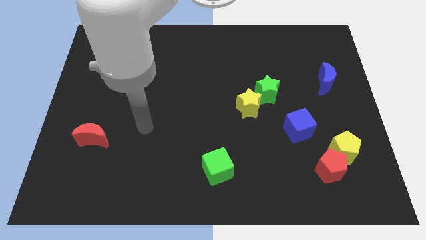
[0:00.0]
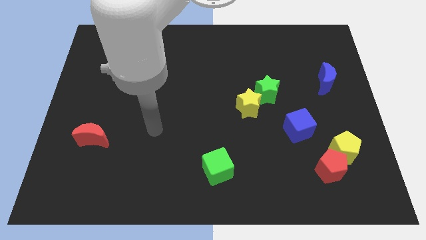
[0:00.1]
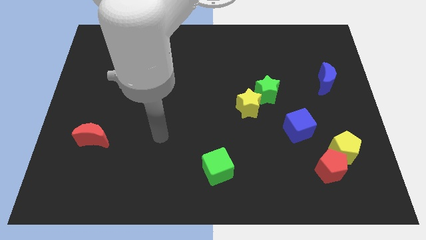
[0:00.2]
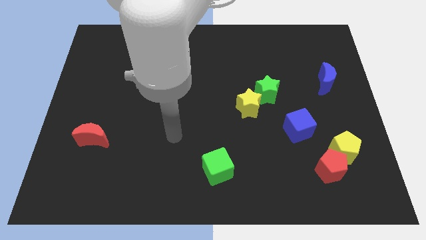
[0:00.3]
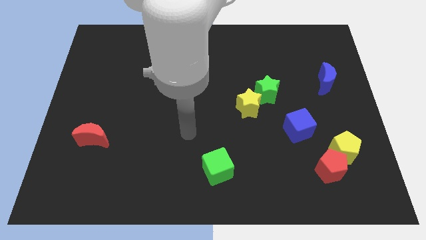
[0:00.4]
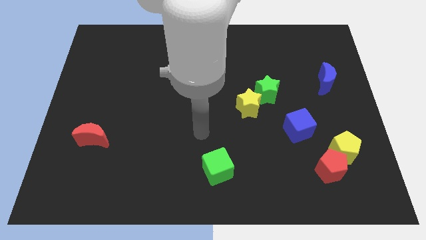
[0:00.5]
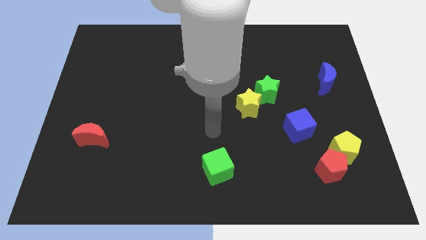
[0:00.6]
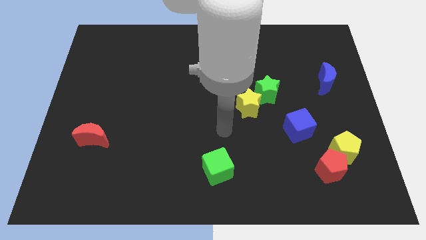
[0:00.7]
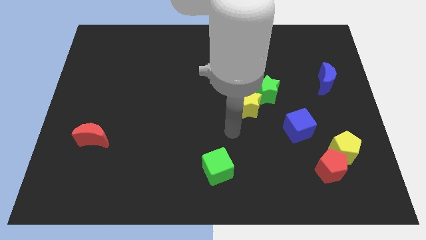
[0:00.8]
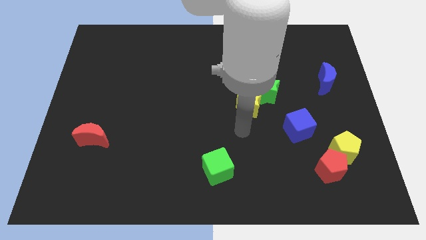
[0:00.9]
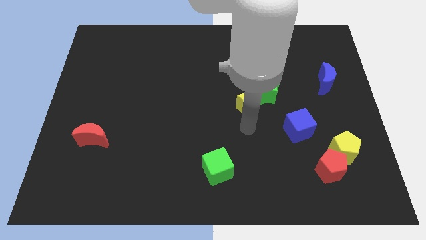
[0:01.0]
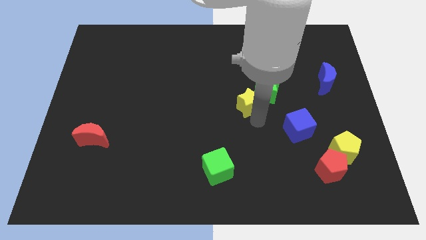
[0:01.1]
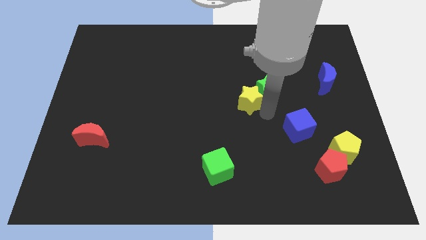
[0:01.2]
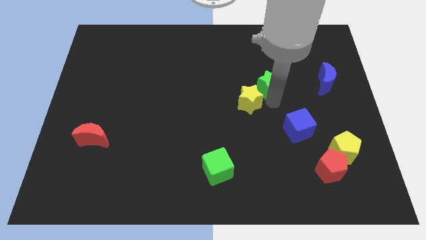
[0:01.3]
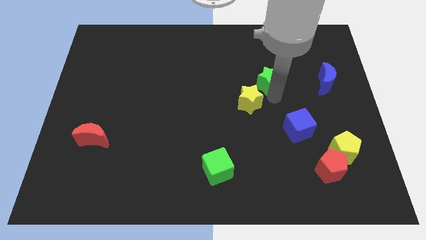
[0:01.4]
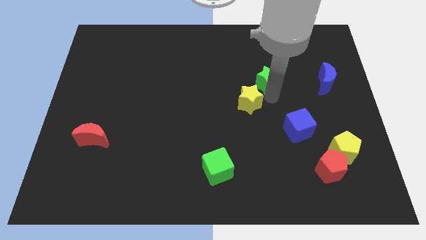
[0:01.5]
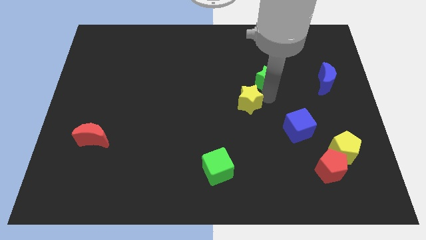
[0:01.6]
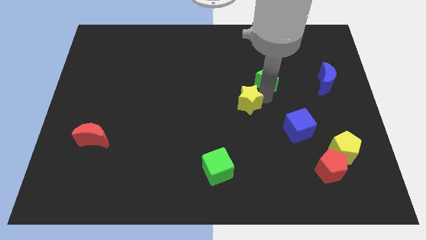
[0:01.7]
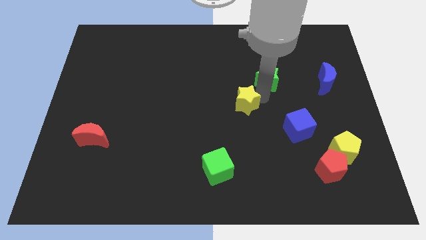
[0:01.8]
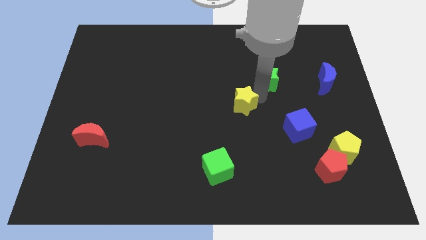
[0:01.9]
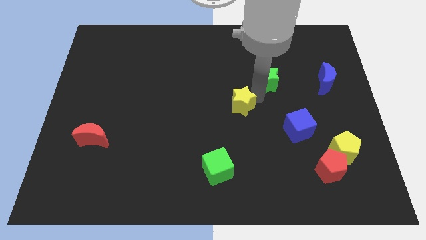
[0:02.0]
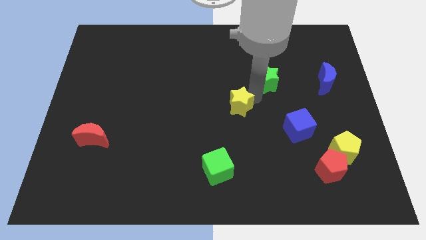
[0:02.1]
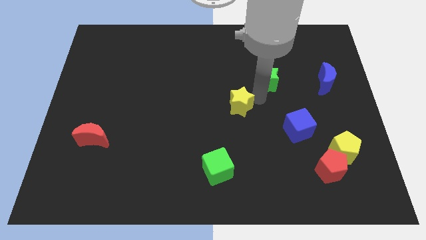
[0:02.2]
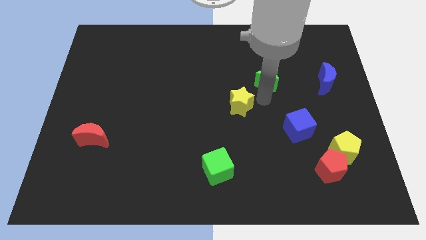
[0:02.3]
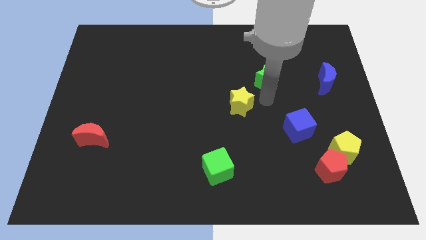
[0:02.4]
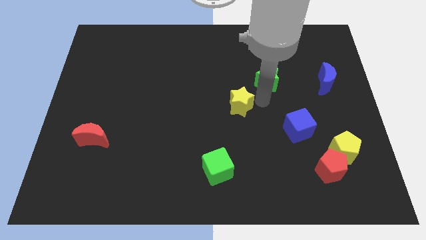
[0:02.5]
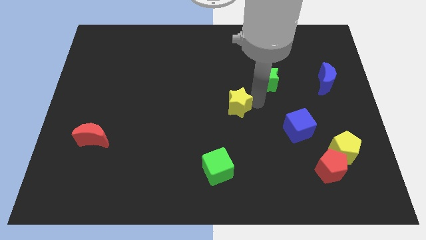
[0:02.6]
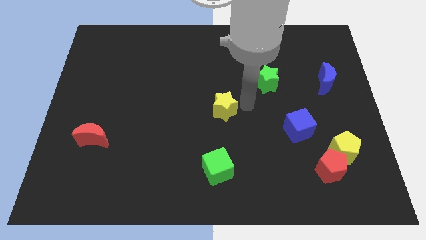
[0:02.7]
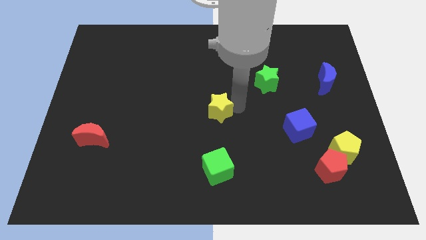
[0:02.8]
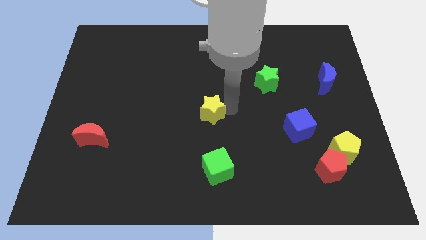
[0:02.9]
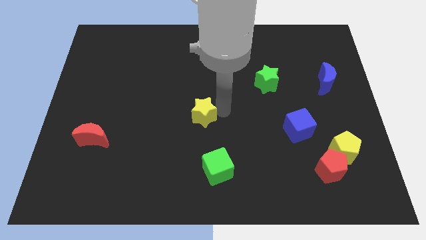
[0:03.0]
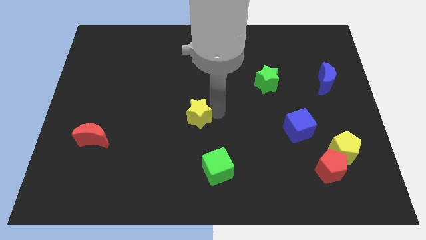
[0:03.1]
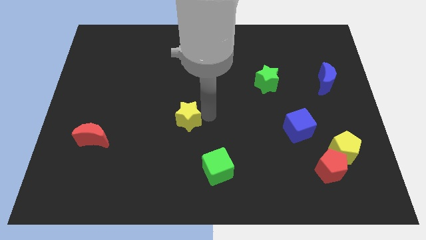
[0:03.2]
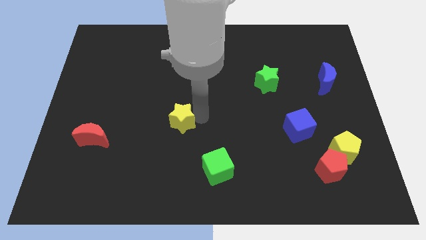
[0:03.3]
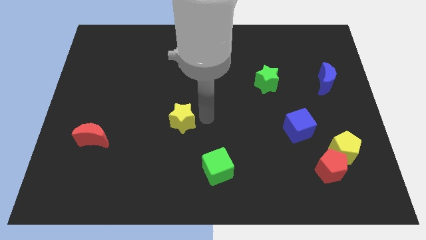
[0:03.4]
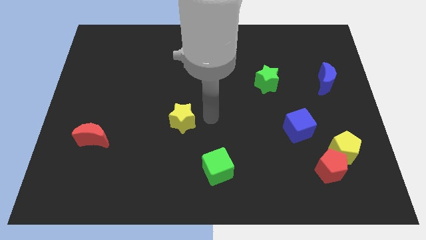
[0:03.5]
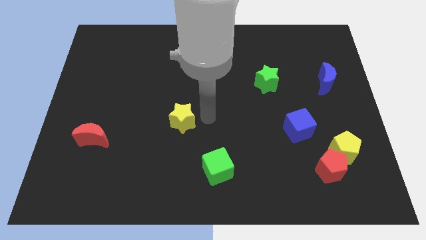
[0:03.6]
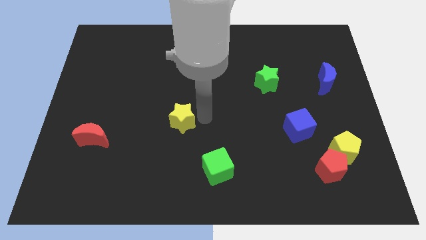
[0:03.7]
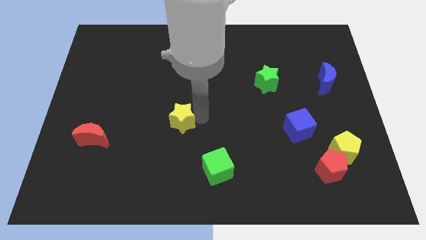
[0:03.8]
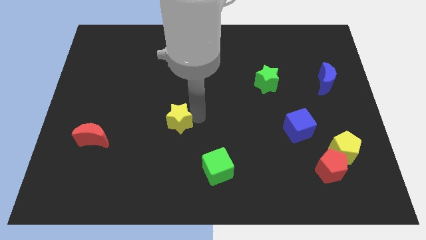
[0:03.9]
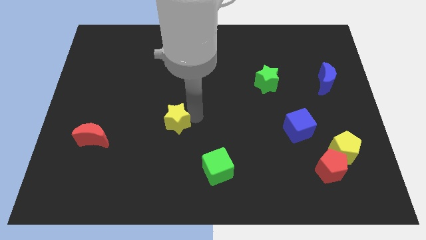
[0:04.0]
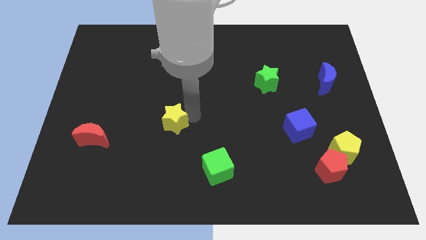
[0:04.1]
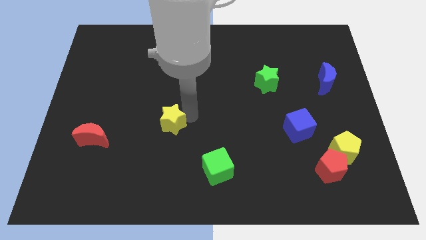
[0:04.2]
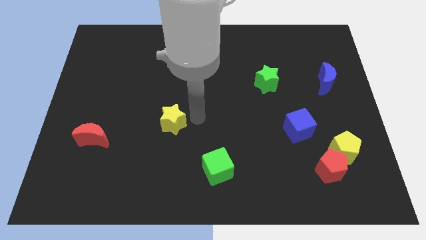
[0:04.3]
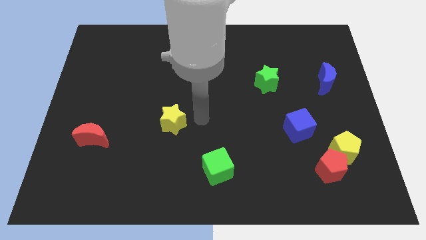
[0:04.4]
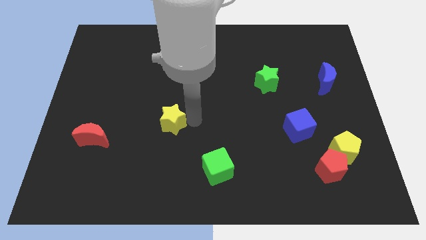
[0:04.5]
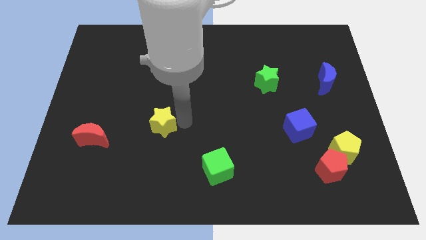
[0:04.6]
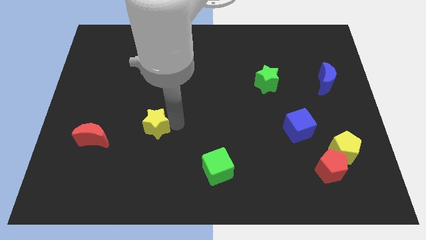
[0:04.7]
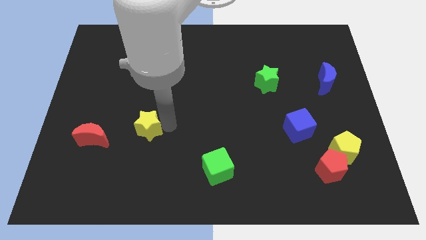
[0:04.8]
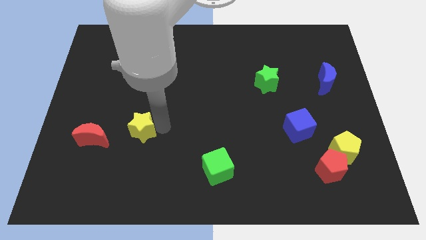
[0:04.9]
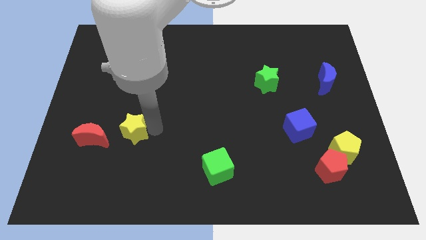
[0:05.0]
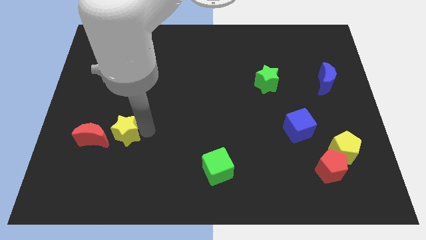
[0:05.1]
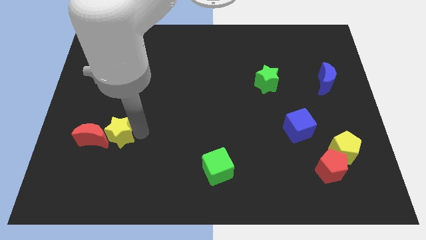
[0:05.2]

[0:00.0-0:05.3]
move the yellow star close to the red moon

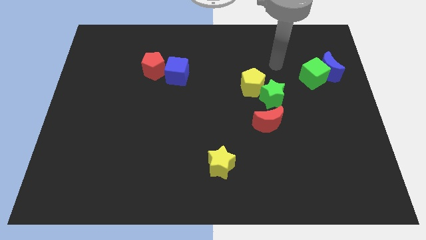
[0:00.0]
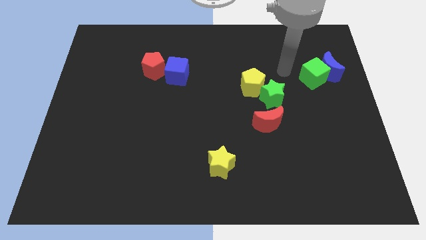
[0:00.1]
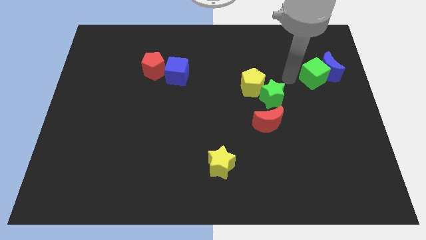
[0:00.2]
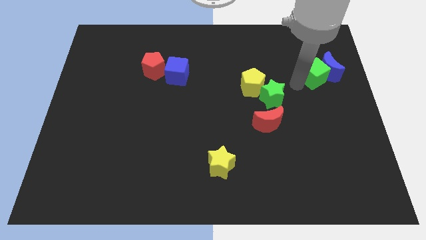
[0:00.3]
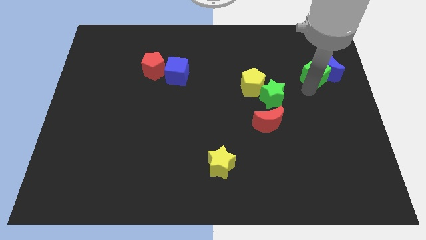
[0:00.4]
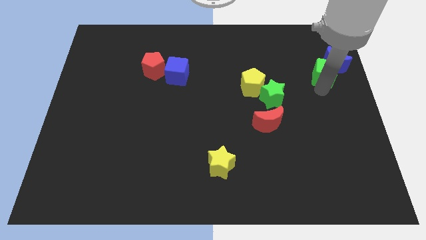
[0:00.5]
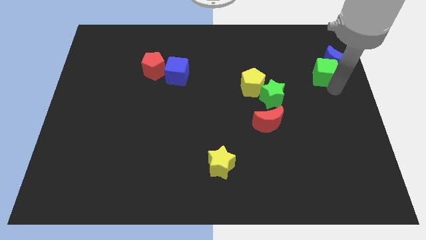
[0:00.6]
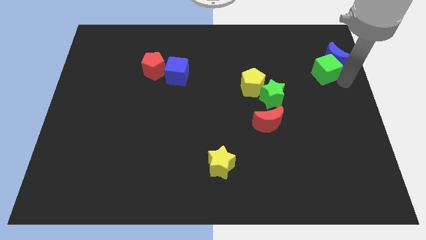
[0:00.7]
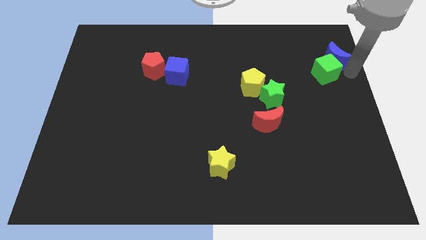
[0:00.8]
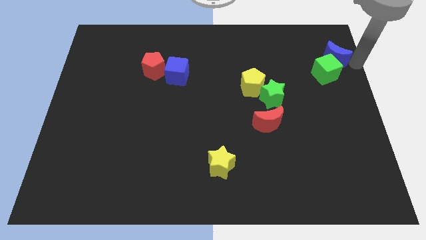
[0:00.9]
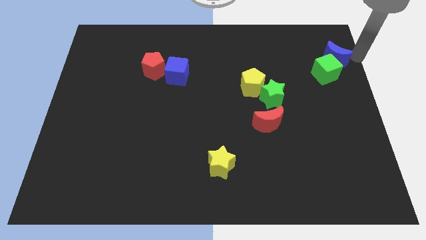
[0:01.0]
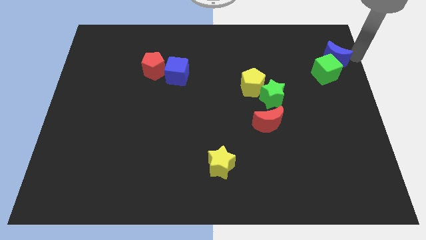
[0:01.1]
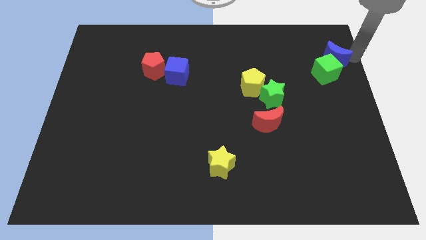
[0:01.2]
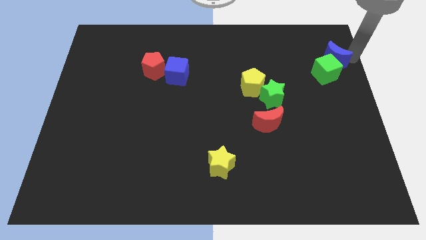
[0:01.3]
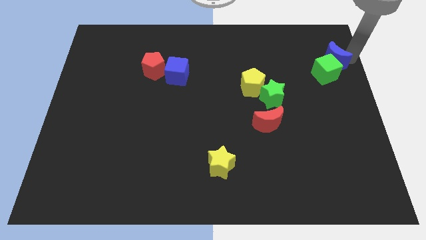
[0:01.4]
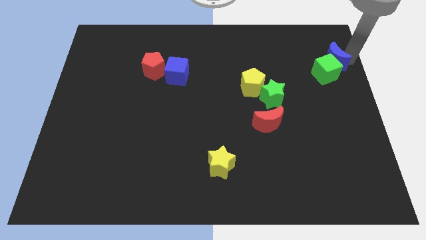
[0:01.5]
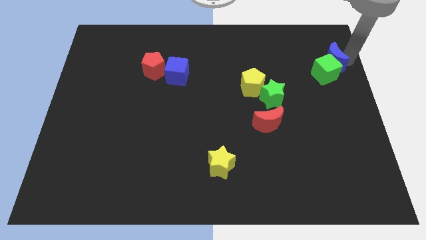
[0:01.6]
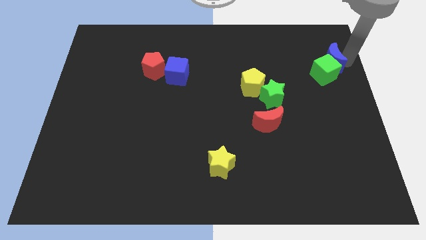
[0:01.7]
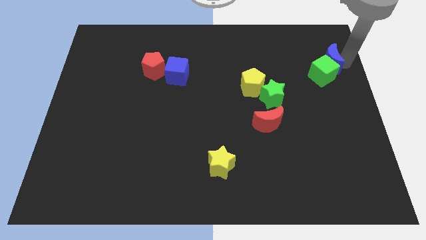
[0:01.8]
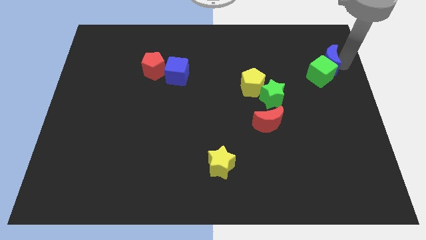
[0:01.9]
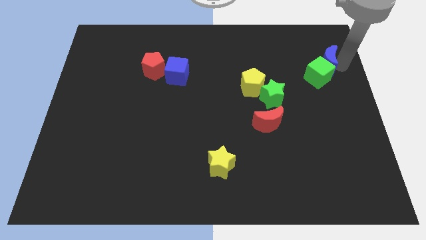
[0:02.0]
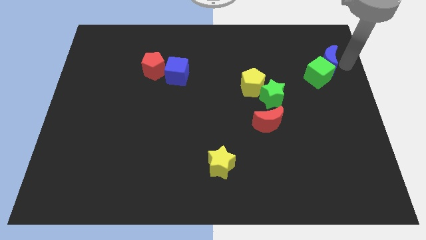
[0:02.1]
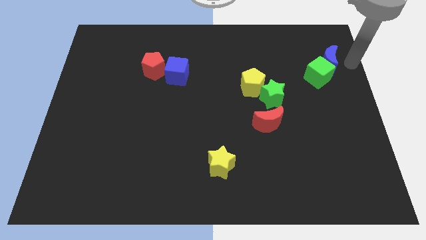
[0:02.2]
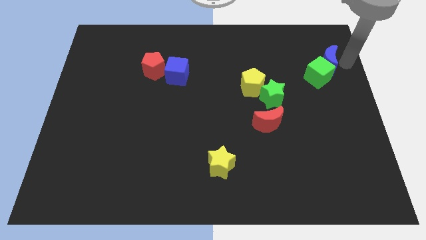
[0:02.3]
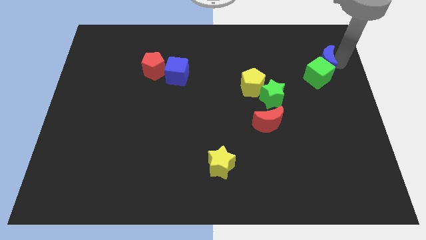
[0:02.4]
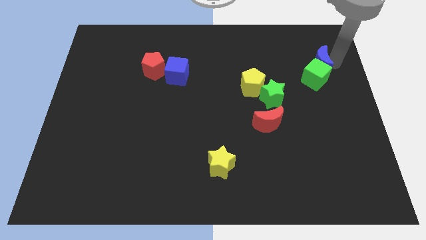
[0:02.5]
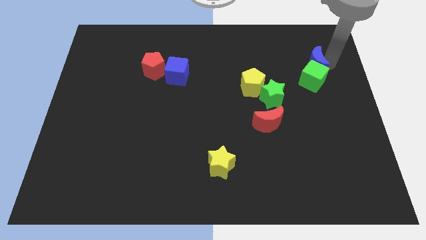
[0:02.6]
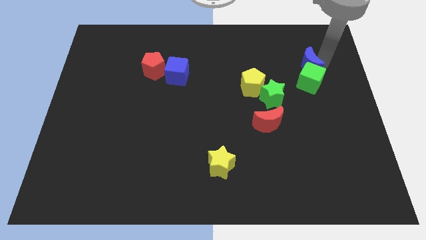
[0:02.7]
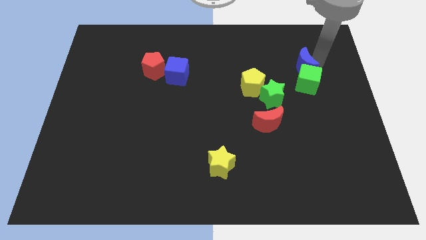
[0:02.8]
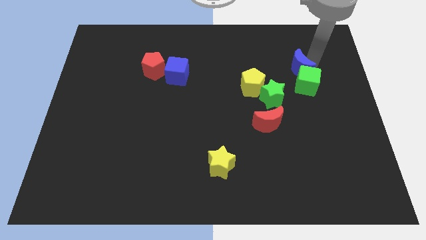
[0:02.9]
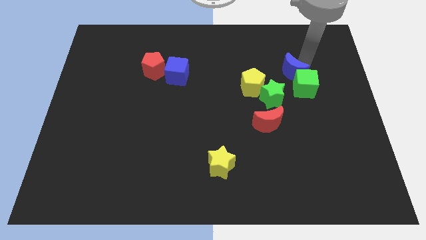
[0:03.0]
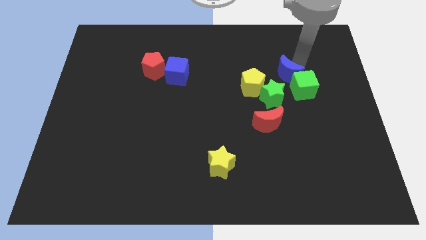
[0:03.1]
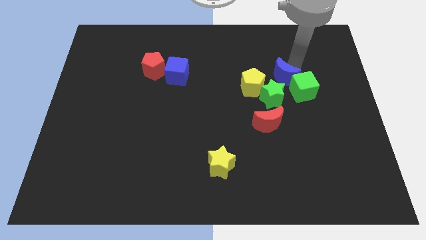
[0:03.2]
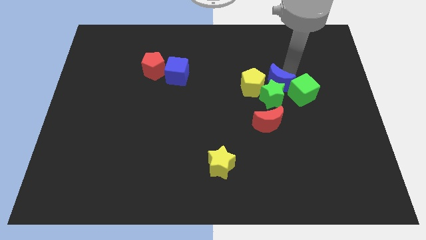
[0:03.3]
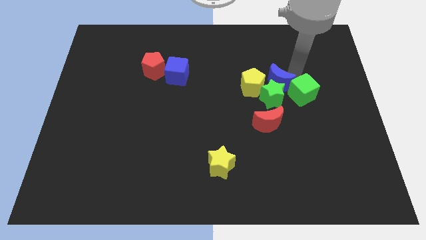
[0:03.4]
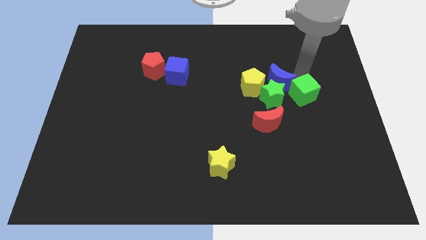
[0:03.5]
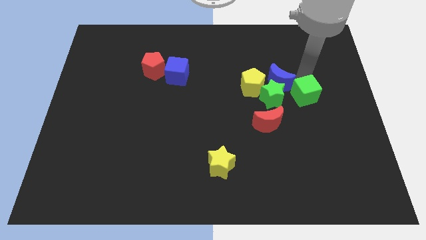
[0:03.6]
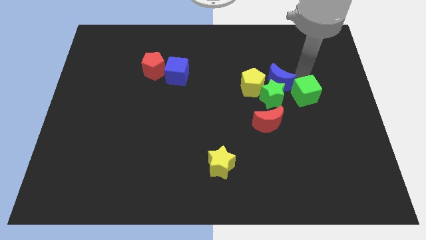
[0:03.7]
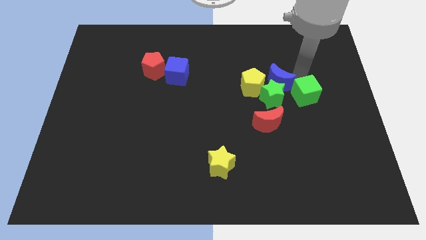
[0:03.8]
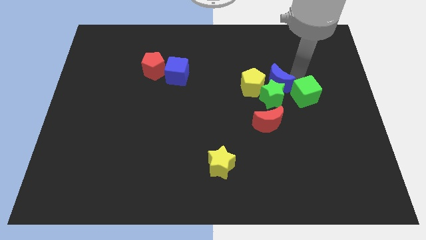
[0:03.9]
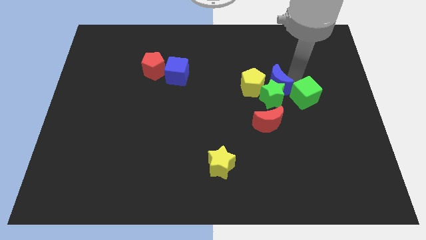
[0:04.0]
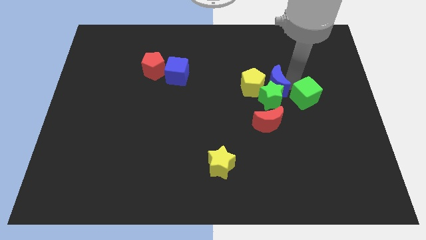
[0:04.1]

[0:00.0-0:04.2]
move the blue moon next to the yellow pentagon
